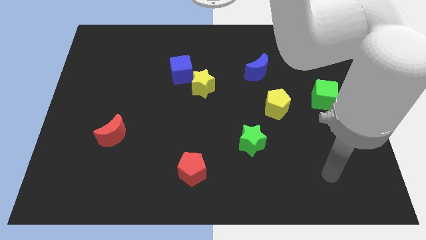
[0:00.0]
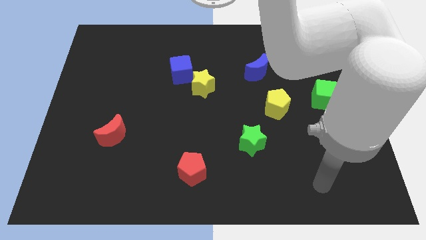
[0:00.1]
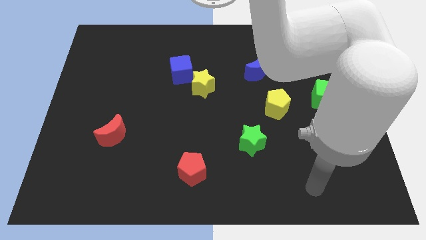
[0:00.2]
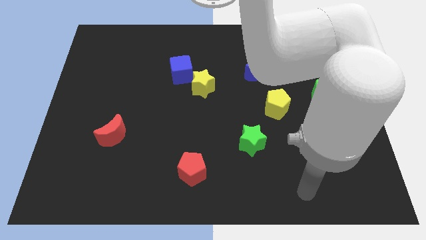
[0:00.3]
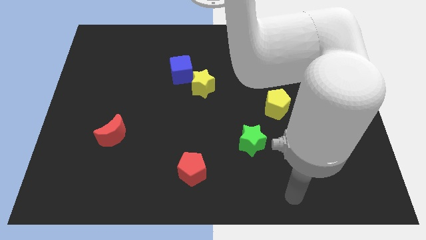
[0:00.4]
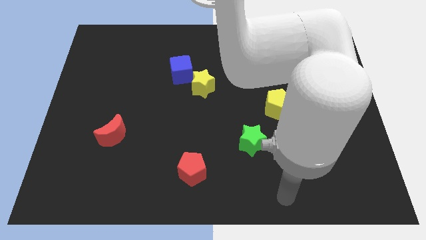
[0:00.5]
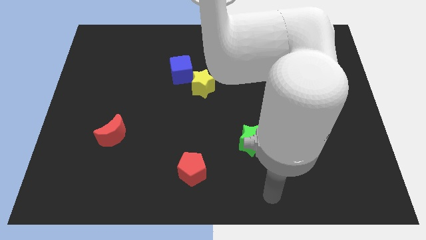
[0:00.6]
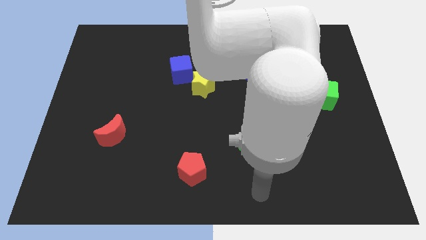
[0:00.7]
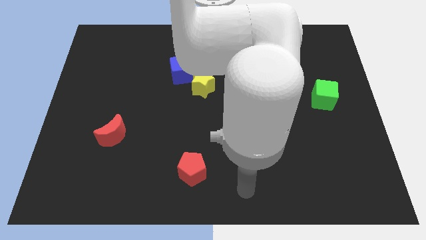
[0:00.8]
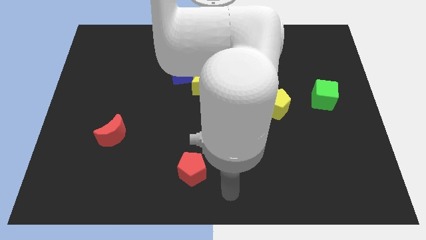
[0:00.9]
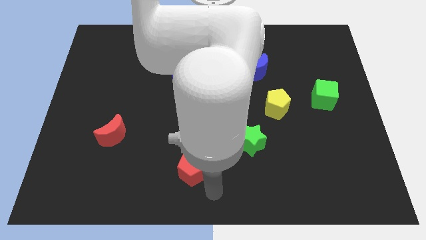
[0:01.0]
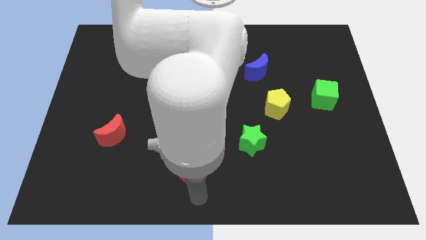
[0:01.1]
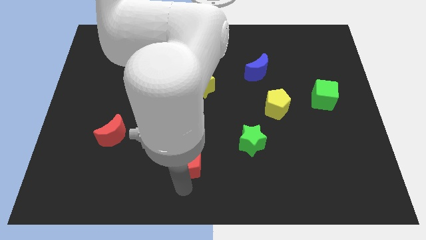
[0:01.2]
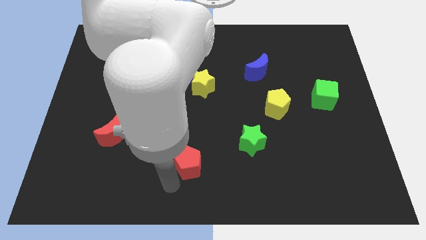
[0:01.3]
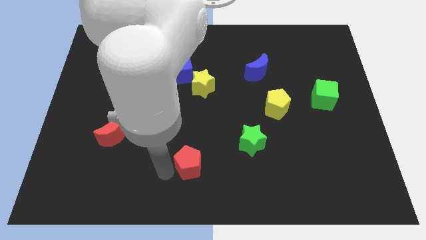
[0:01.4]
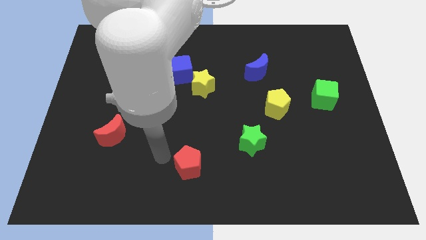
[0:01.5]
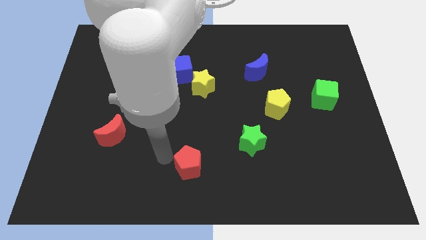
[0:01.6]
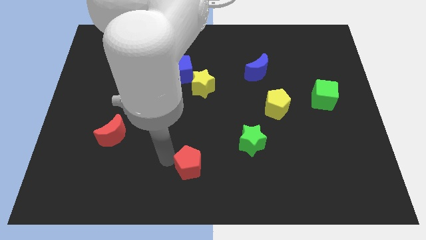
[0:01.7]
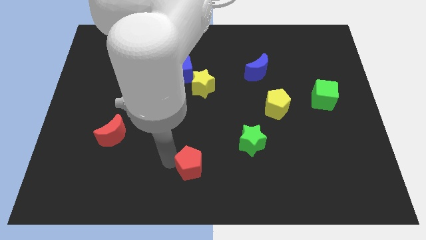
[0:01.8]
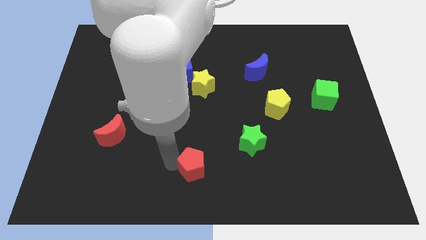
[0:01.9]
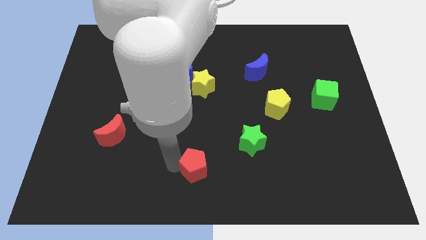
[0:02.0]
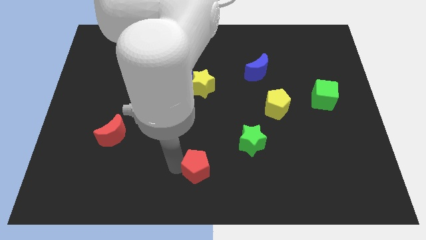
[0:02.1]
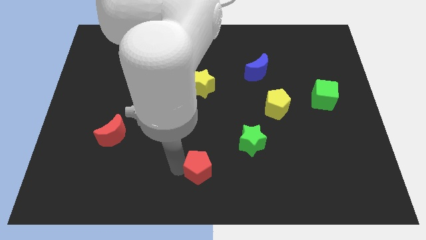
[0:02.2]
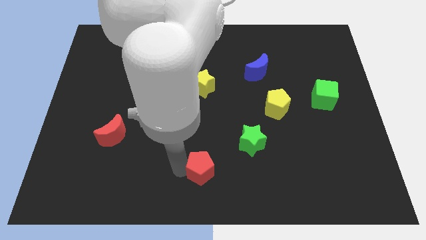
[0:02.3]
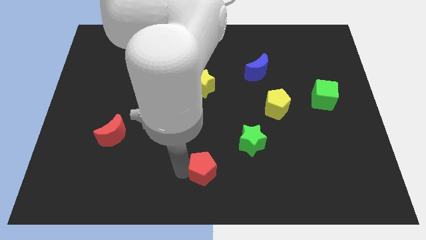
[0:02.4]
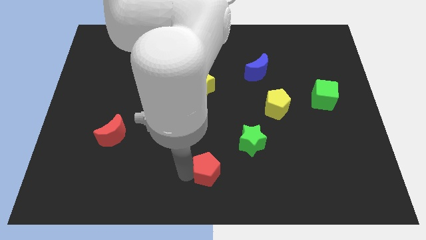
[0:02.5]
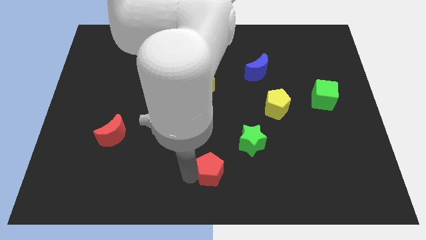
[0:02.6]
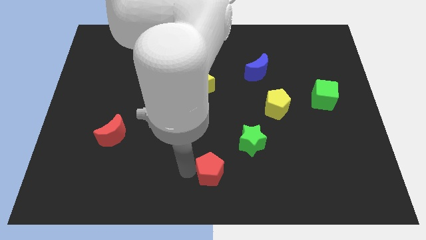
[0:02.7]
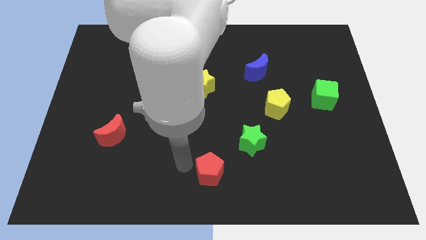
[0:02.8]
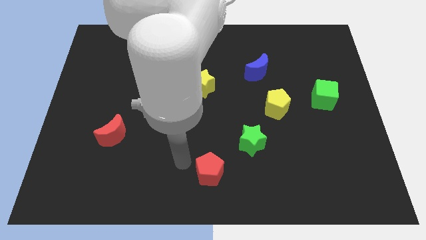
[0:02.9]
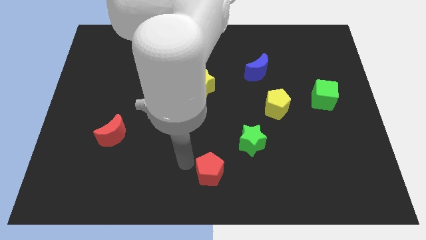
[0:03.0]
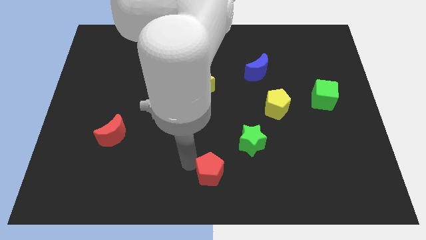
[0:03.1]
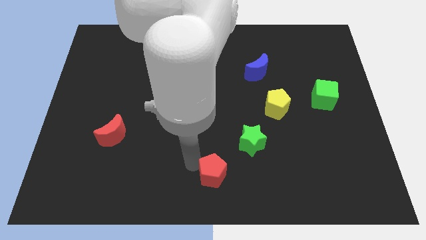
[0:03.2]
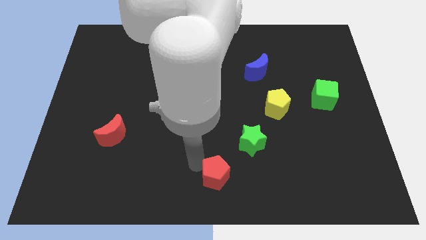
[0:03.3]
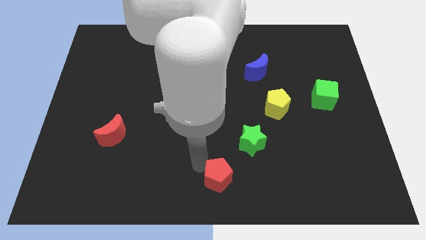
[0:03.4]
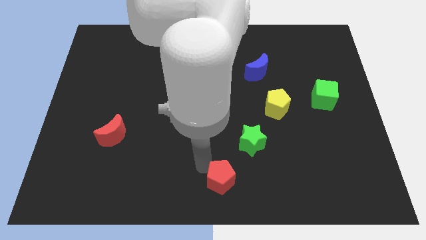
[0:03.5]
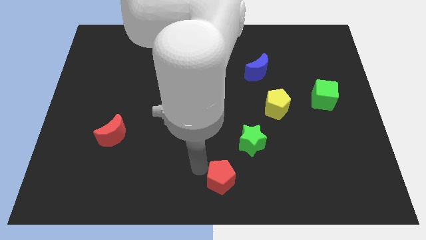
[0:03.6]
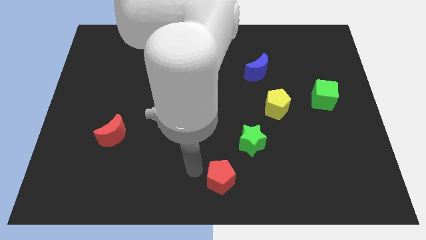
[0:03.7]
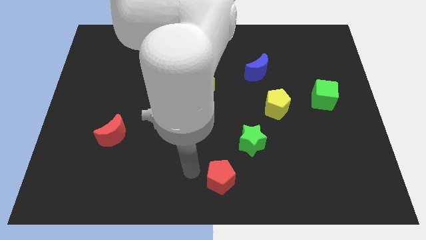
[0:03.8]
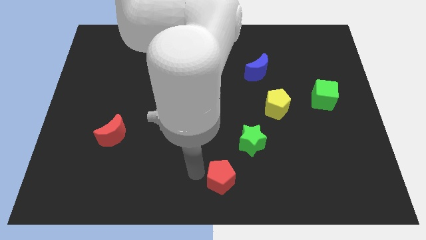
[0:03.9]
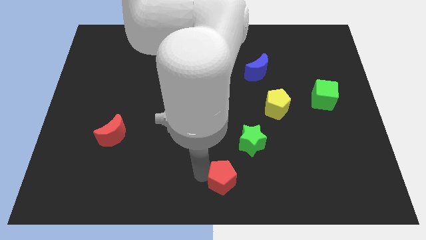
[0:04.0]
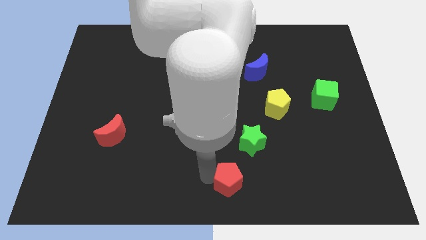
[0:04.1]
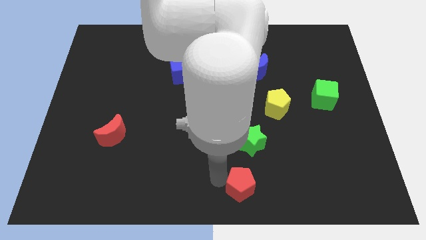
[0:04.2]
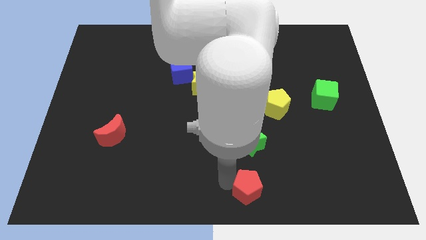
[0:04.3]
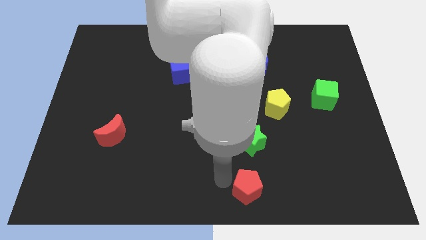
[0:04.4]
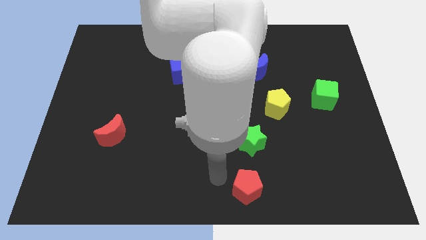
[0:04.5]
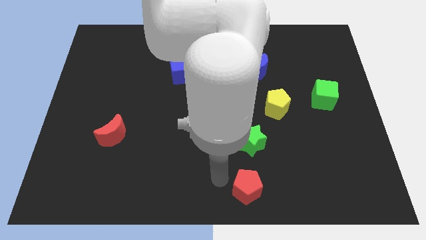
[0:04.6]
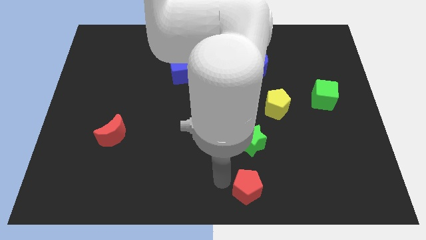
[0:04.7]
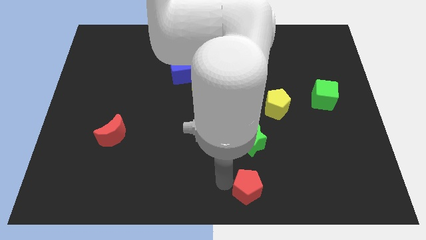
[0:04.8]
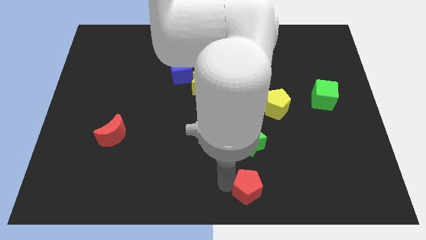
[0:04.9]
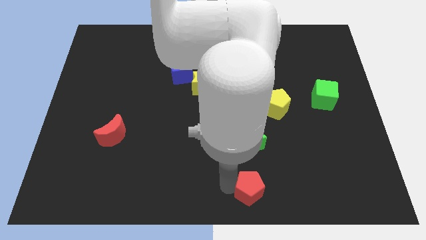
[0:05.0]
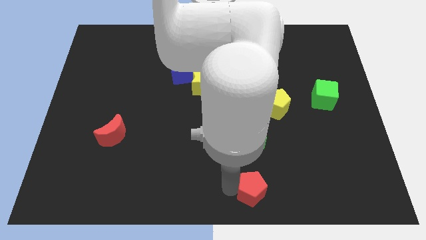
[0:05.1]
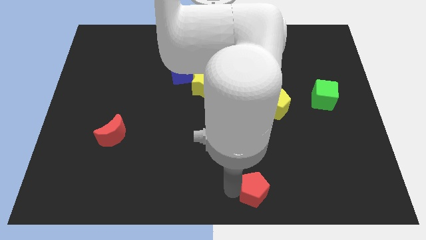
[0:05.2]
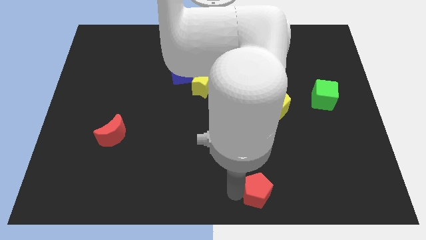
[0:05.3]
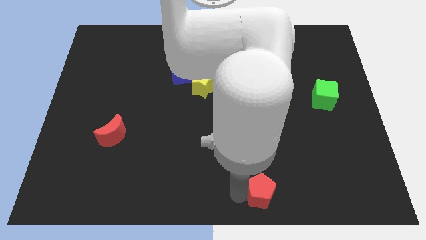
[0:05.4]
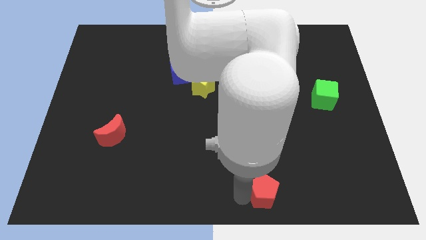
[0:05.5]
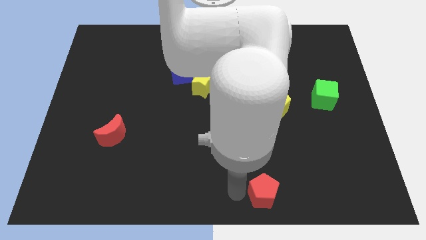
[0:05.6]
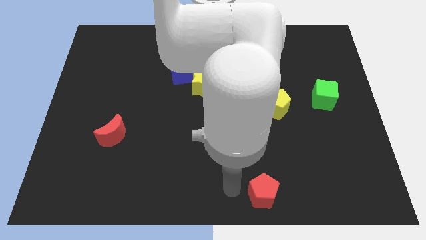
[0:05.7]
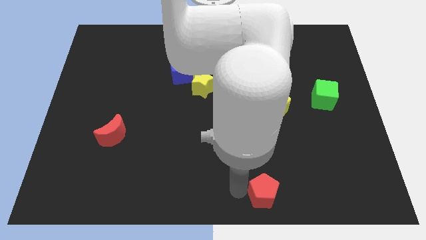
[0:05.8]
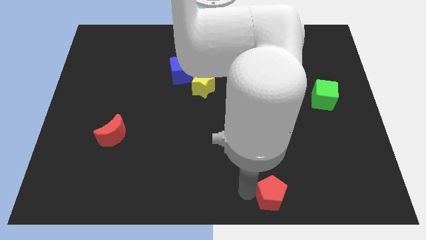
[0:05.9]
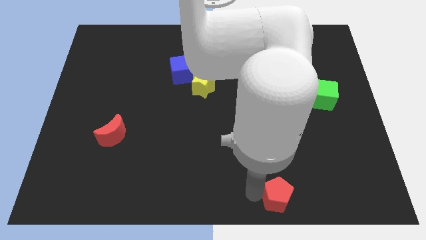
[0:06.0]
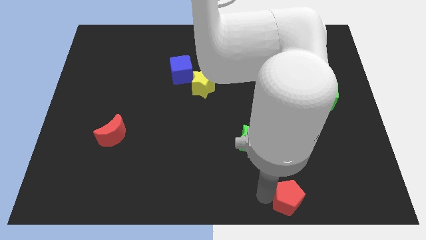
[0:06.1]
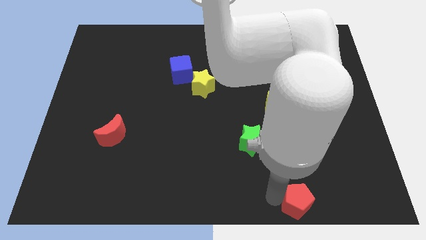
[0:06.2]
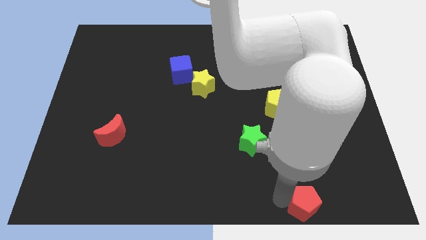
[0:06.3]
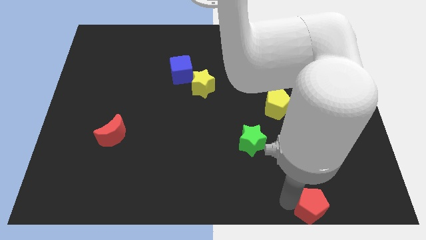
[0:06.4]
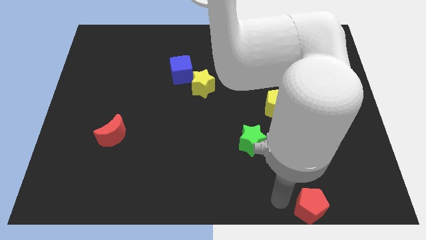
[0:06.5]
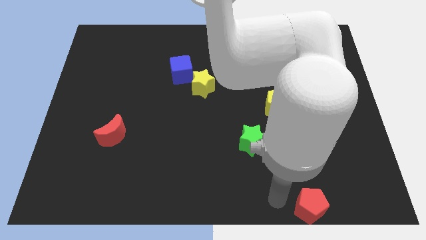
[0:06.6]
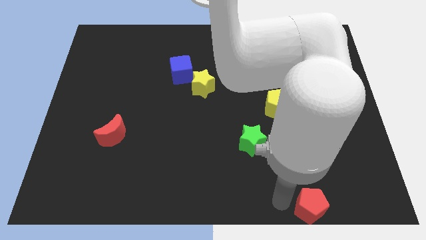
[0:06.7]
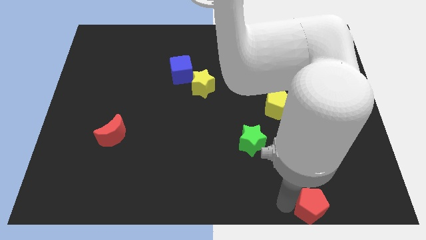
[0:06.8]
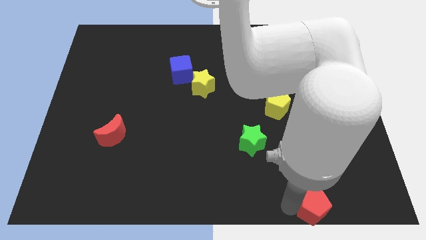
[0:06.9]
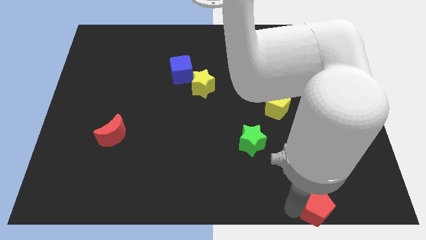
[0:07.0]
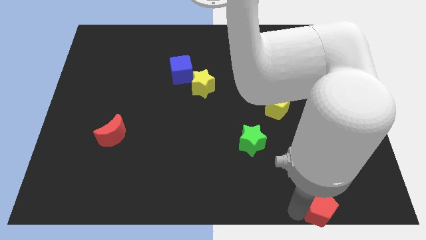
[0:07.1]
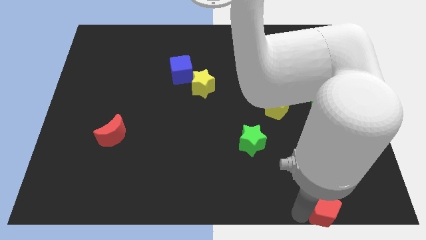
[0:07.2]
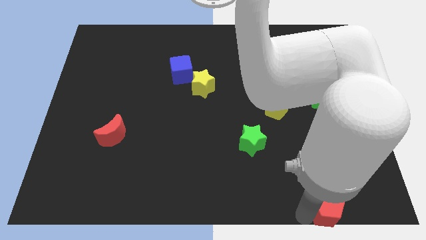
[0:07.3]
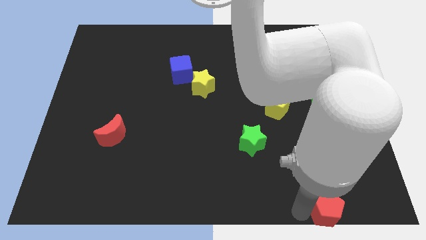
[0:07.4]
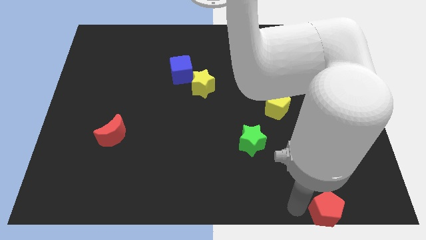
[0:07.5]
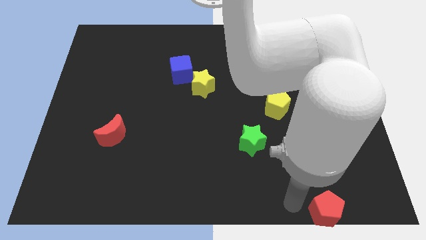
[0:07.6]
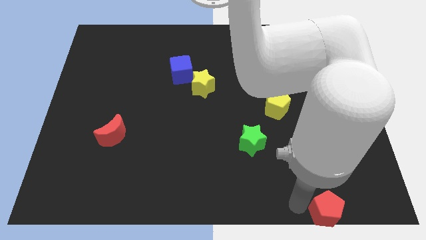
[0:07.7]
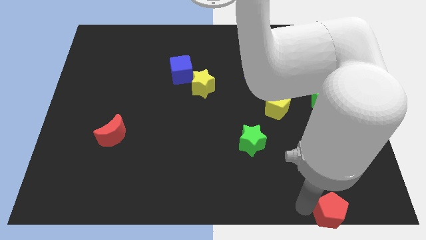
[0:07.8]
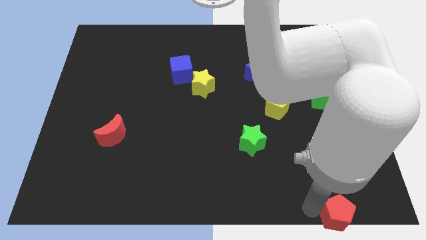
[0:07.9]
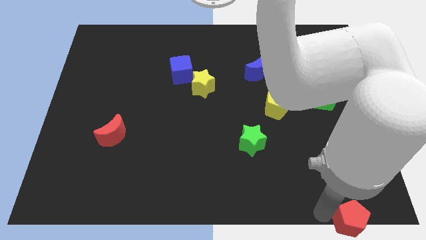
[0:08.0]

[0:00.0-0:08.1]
put the red pentagon to the bottom right of the board
